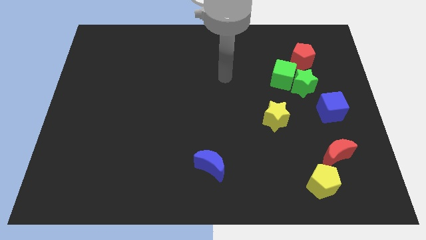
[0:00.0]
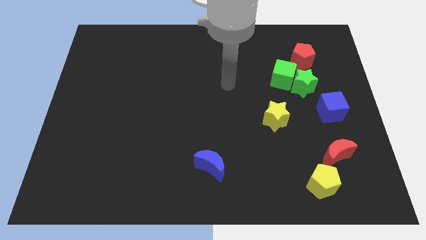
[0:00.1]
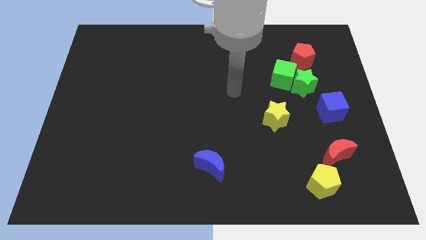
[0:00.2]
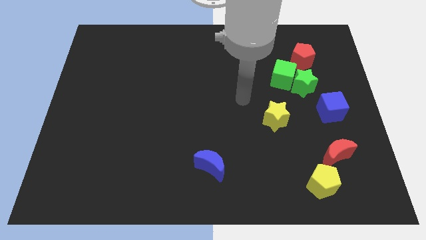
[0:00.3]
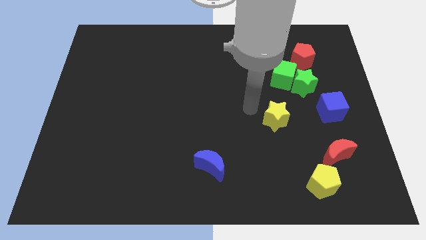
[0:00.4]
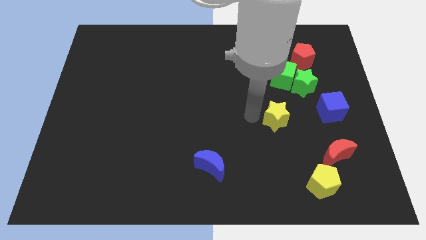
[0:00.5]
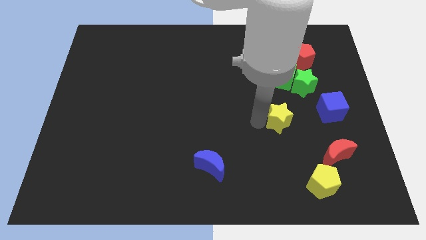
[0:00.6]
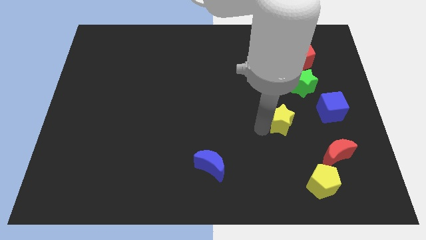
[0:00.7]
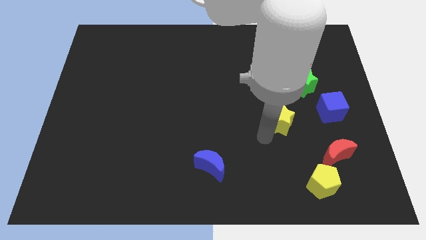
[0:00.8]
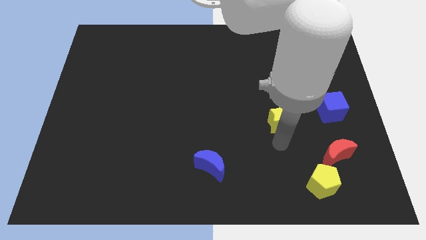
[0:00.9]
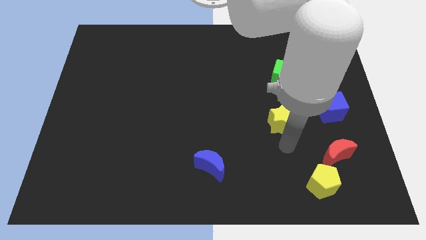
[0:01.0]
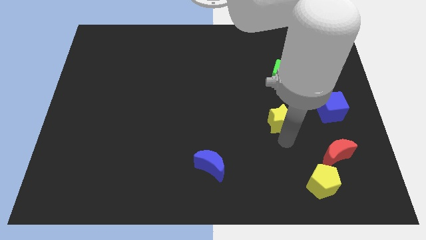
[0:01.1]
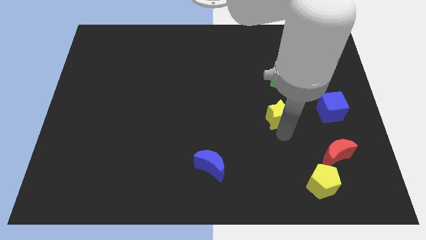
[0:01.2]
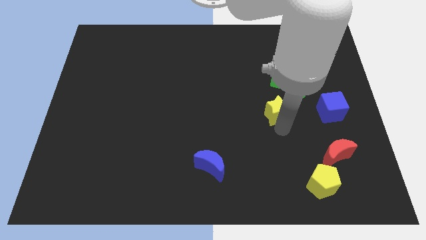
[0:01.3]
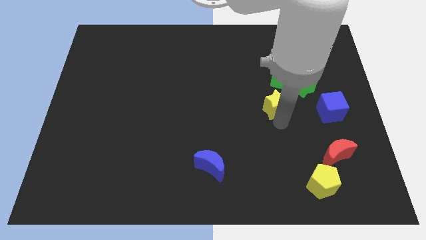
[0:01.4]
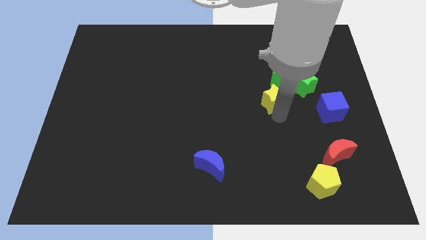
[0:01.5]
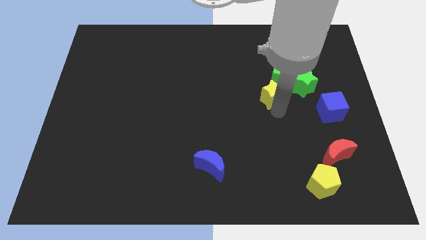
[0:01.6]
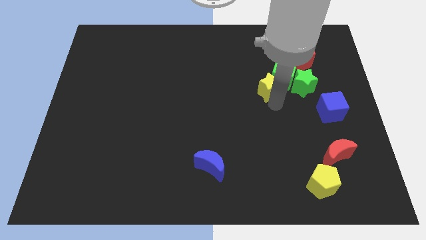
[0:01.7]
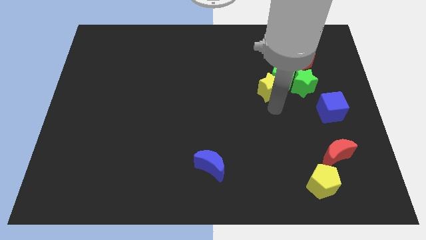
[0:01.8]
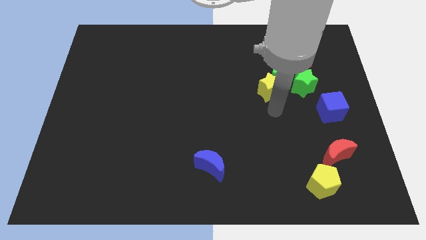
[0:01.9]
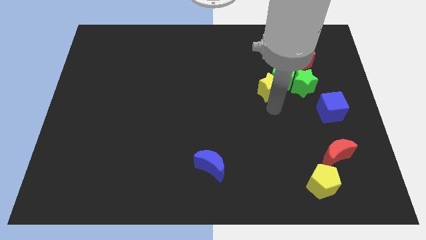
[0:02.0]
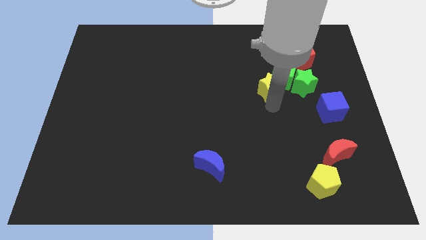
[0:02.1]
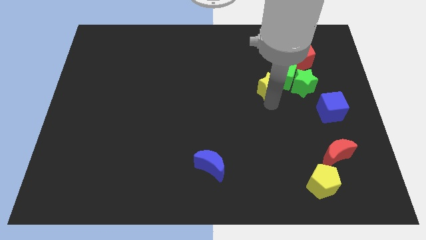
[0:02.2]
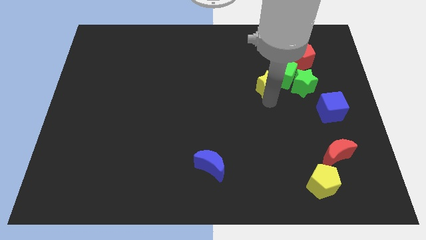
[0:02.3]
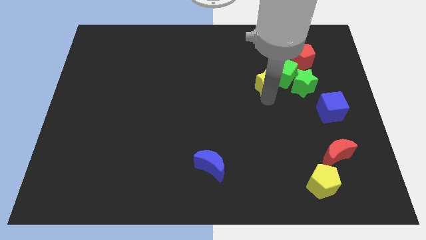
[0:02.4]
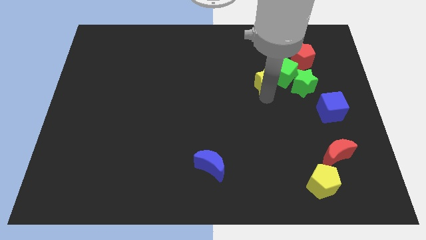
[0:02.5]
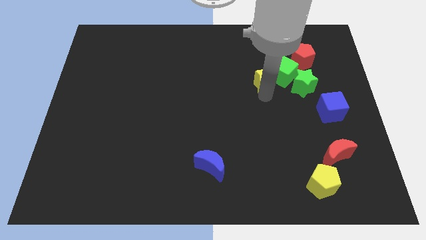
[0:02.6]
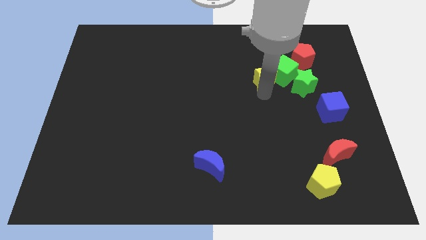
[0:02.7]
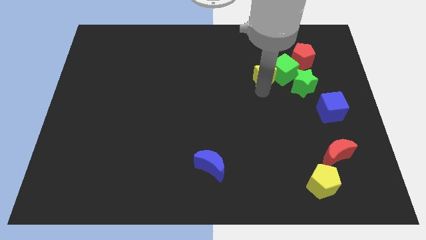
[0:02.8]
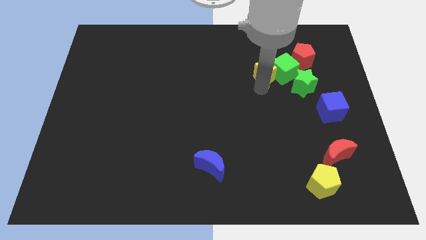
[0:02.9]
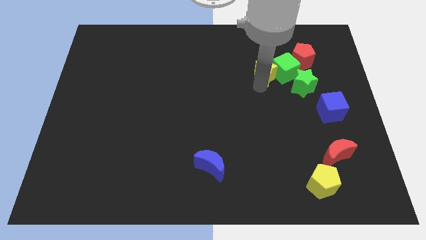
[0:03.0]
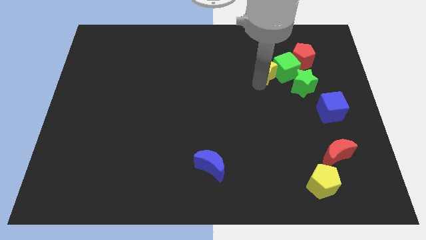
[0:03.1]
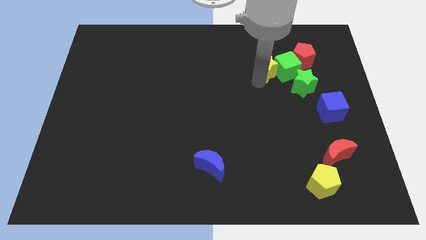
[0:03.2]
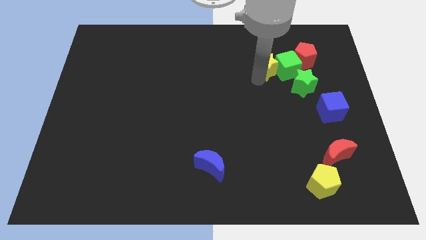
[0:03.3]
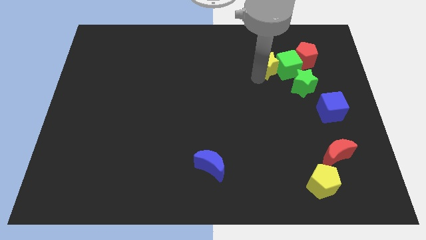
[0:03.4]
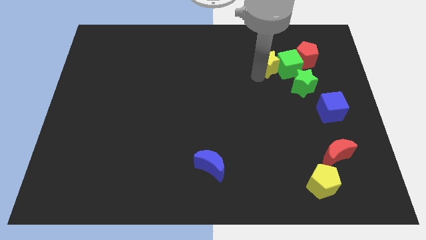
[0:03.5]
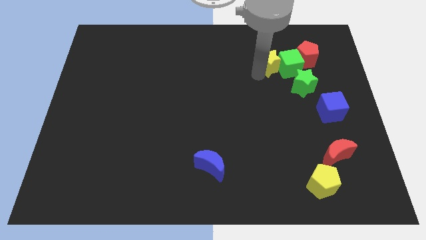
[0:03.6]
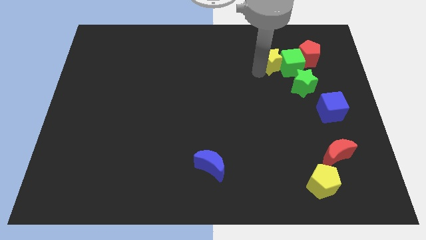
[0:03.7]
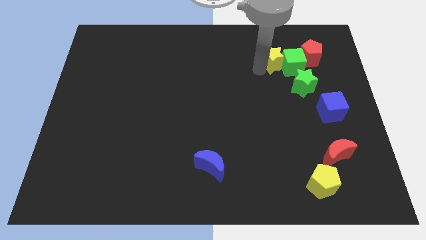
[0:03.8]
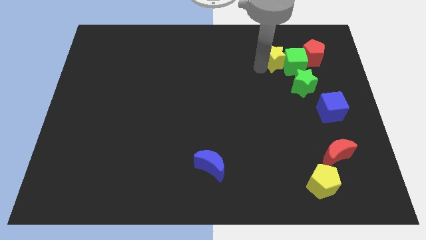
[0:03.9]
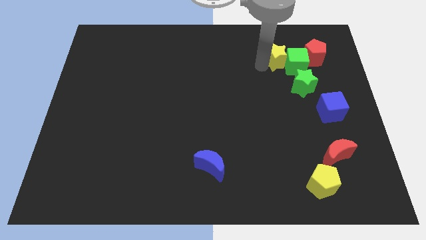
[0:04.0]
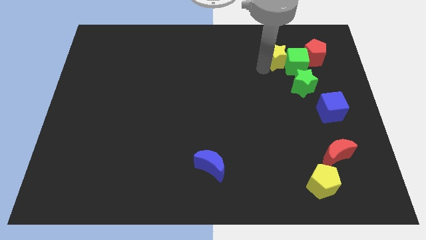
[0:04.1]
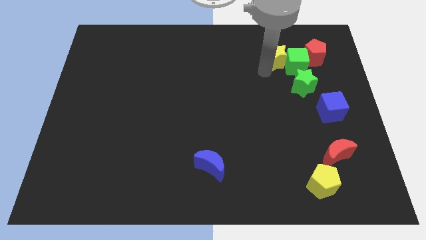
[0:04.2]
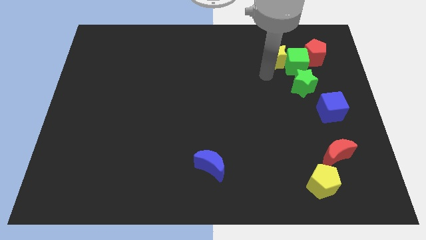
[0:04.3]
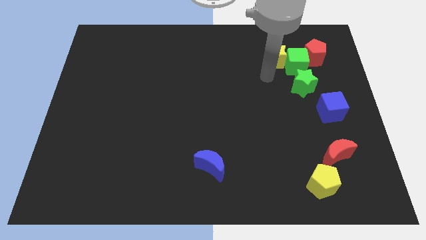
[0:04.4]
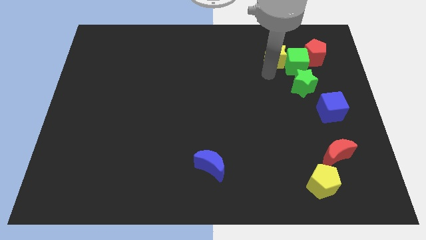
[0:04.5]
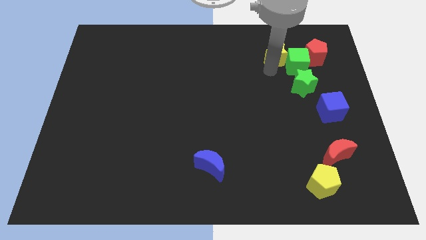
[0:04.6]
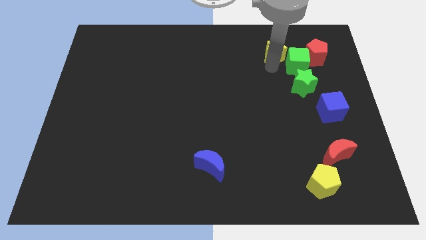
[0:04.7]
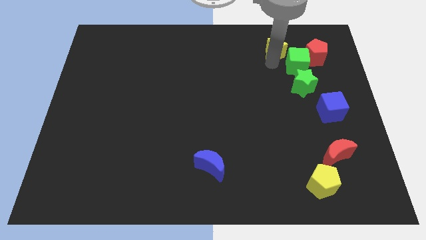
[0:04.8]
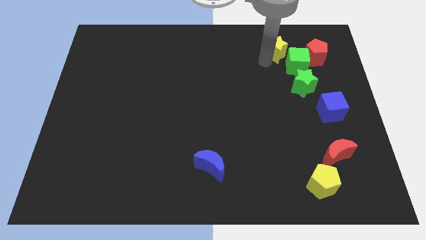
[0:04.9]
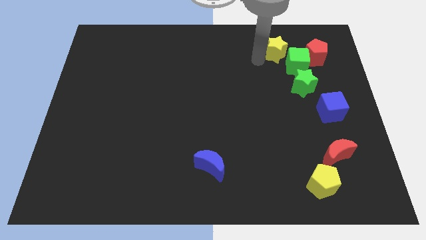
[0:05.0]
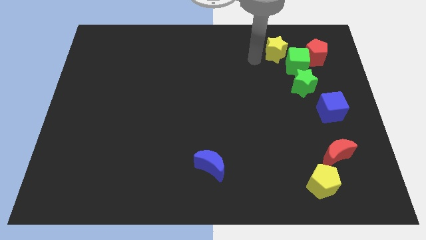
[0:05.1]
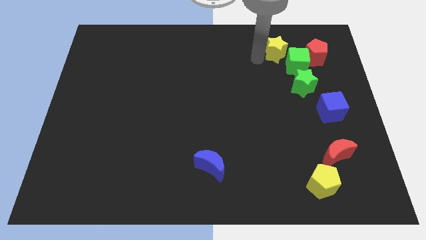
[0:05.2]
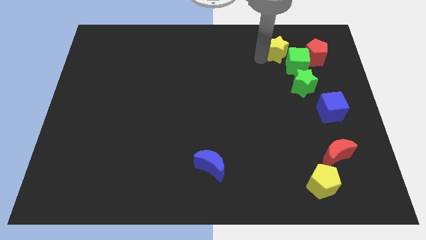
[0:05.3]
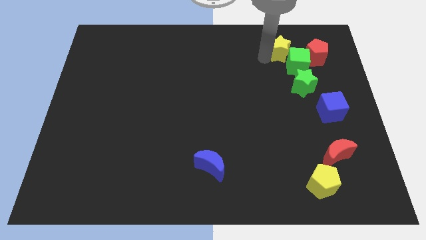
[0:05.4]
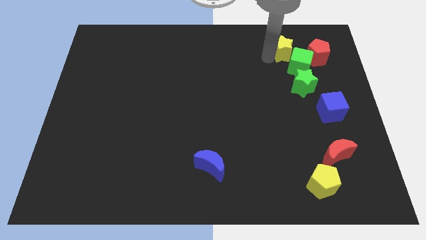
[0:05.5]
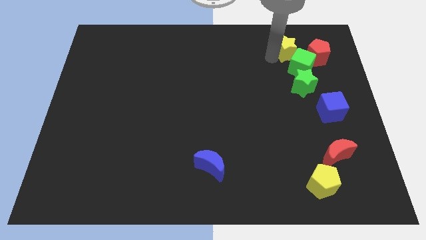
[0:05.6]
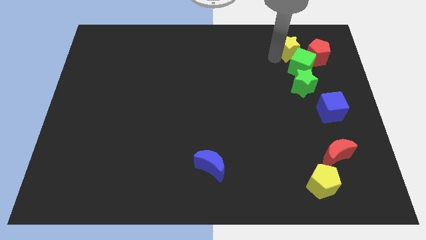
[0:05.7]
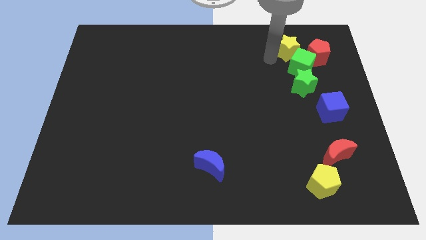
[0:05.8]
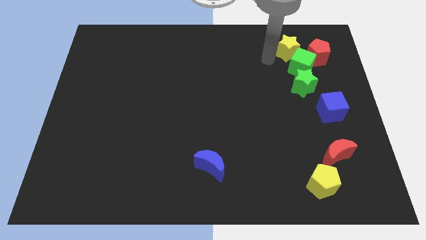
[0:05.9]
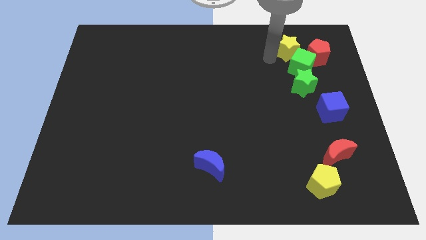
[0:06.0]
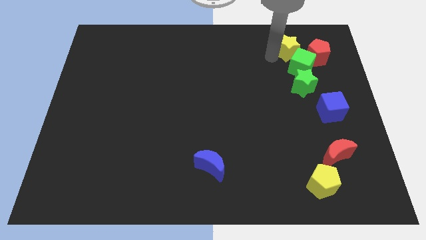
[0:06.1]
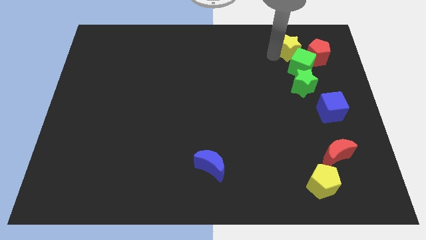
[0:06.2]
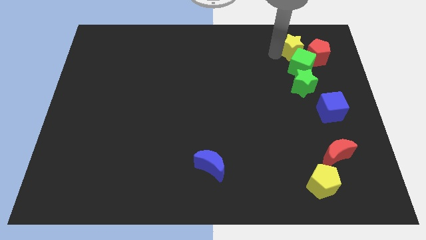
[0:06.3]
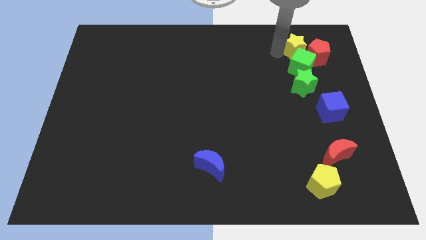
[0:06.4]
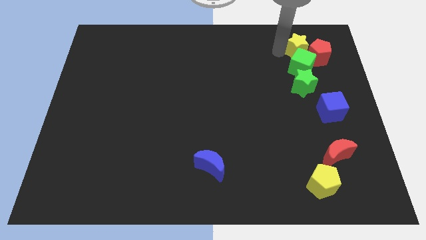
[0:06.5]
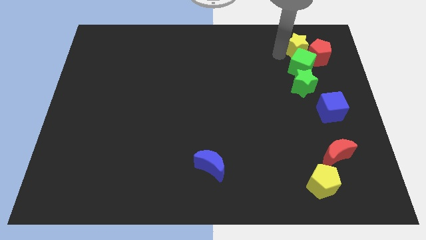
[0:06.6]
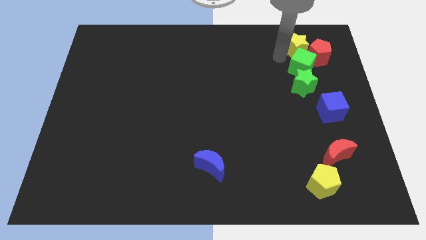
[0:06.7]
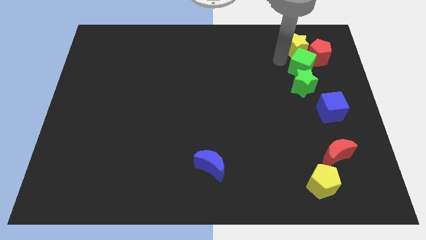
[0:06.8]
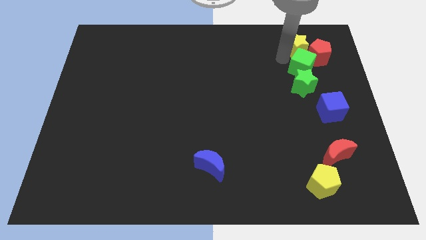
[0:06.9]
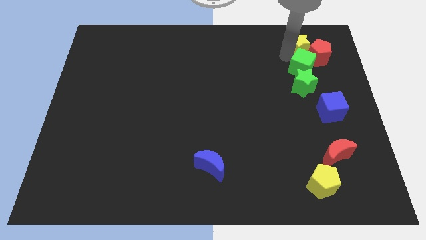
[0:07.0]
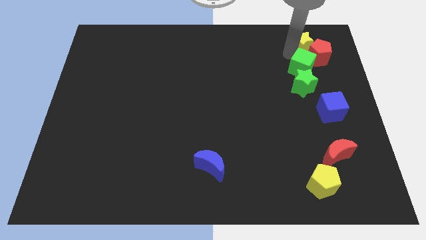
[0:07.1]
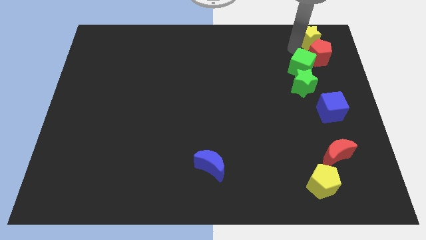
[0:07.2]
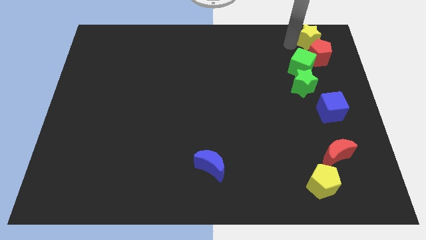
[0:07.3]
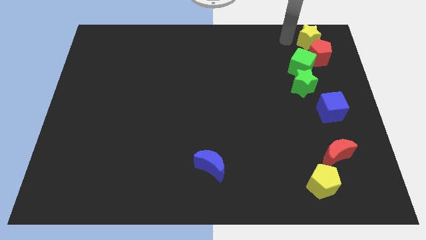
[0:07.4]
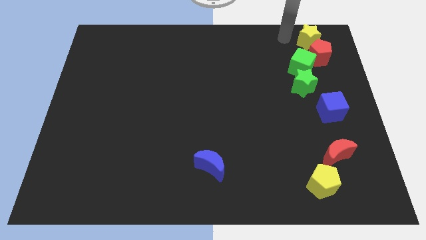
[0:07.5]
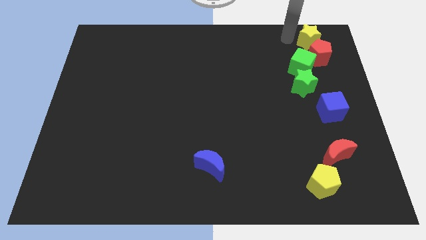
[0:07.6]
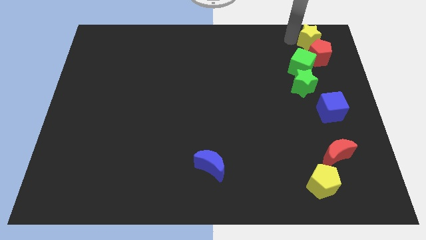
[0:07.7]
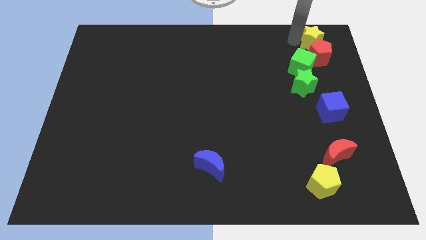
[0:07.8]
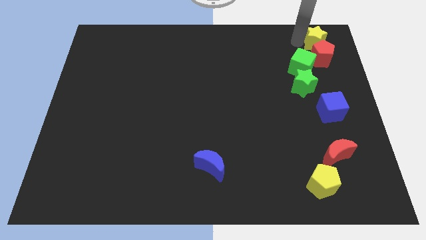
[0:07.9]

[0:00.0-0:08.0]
push the yellow star to the top right of the board
